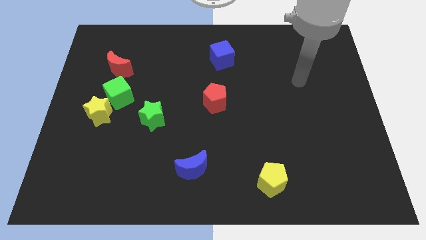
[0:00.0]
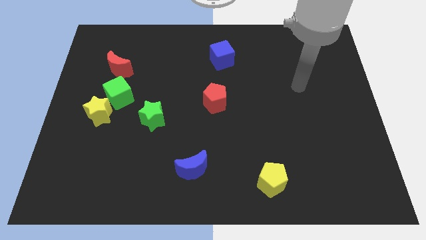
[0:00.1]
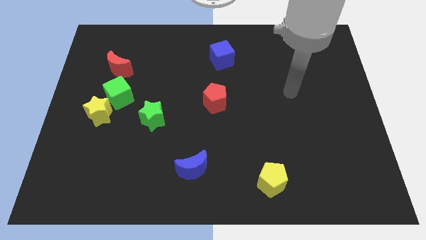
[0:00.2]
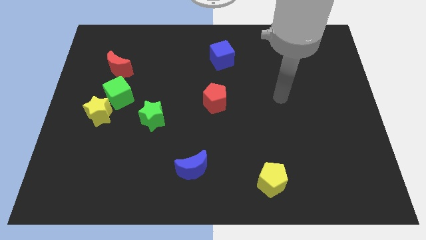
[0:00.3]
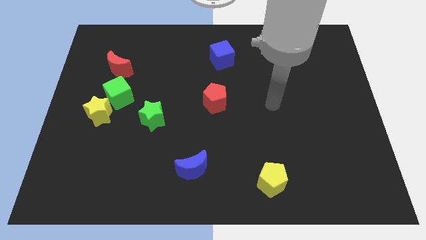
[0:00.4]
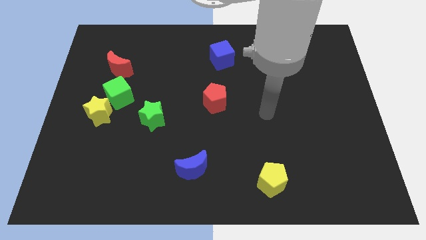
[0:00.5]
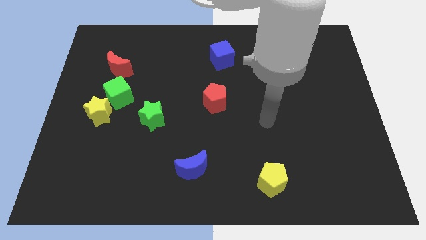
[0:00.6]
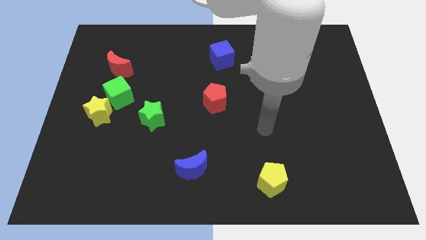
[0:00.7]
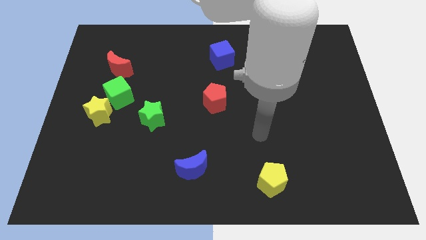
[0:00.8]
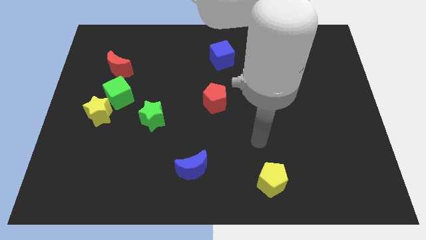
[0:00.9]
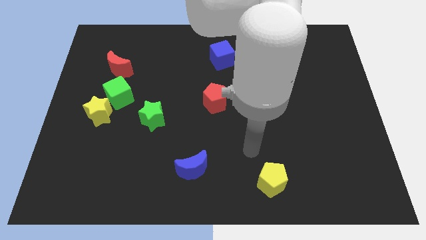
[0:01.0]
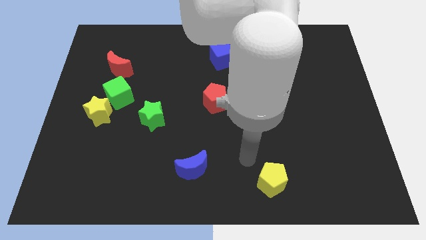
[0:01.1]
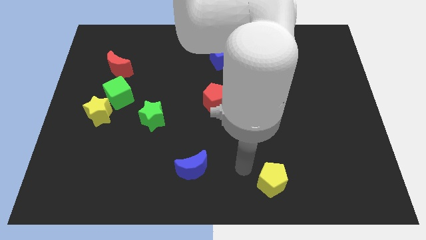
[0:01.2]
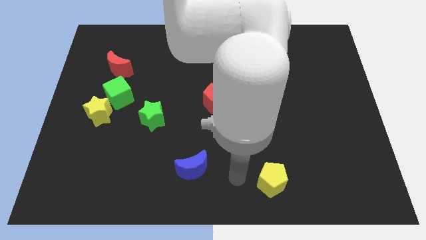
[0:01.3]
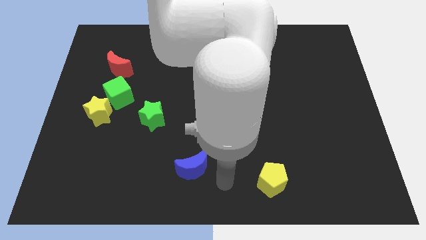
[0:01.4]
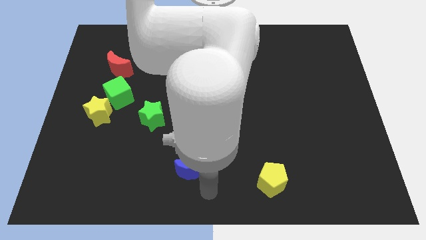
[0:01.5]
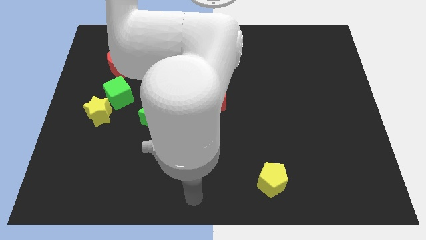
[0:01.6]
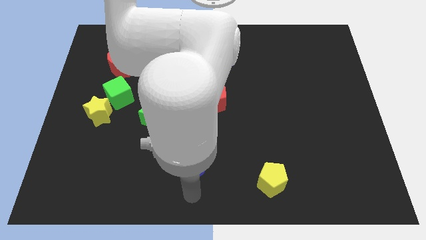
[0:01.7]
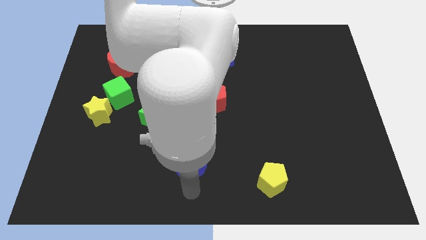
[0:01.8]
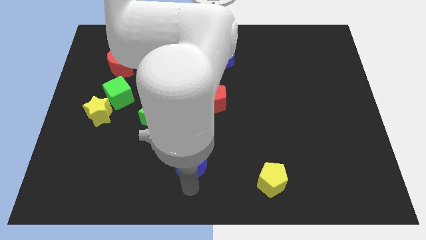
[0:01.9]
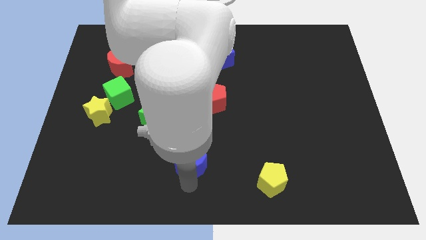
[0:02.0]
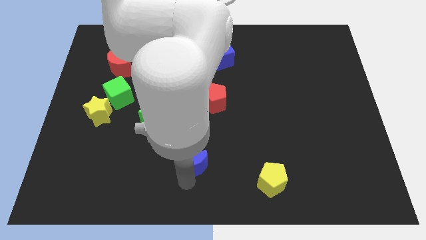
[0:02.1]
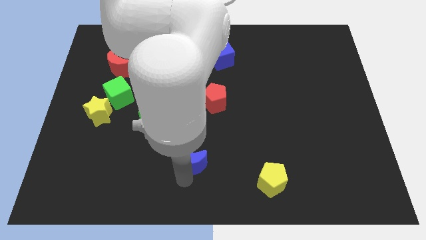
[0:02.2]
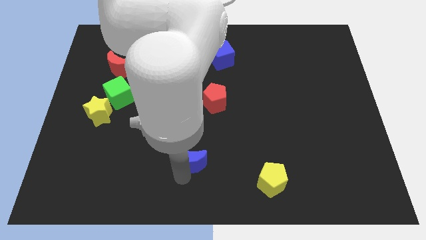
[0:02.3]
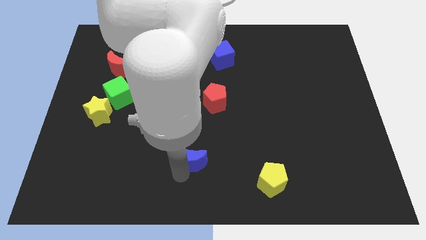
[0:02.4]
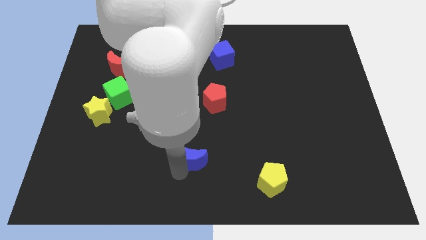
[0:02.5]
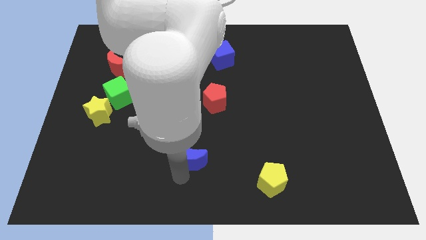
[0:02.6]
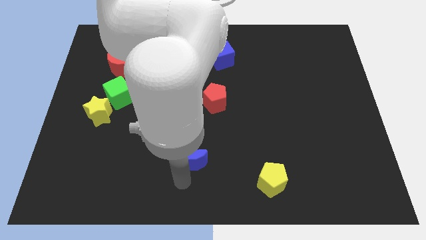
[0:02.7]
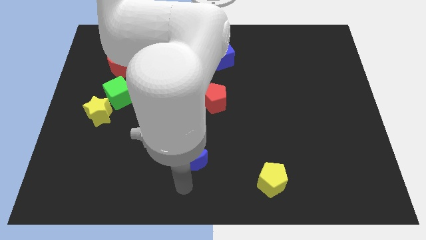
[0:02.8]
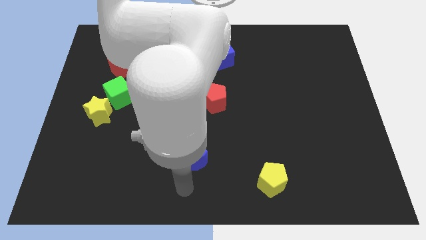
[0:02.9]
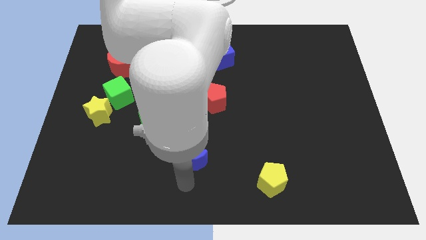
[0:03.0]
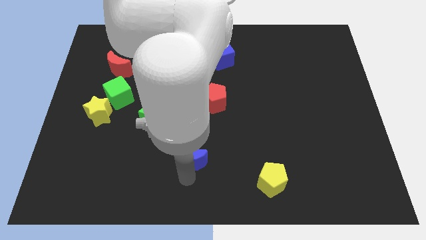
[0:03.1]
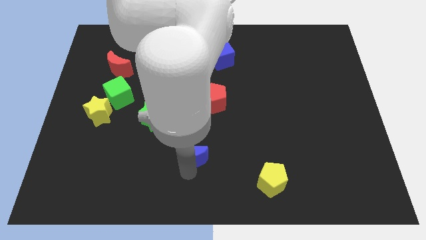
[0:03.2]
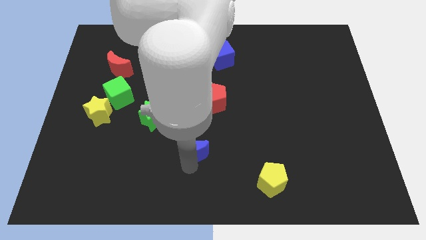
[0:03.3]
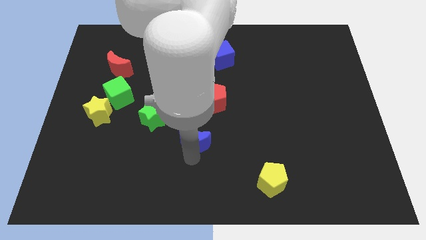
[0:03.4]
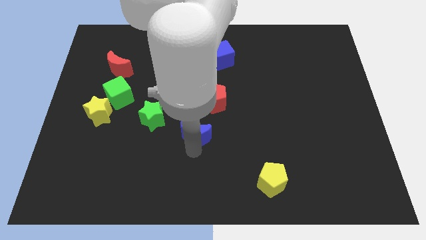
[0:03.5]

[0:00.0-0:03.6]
slightly push the blue moon up

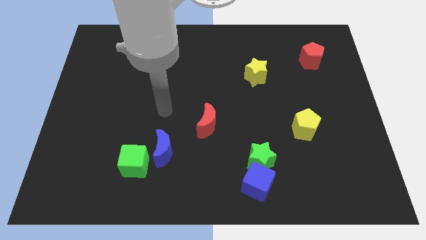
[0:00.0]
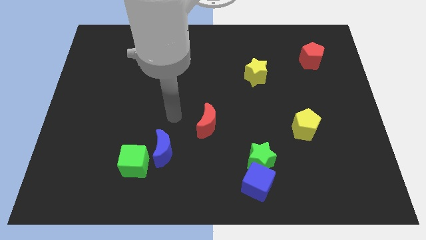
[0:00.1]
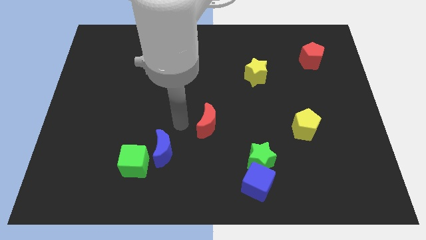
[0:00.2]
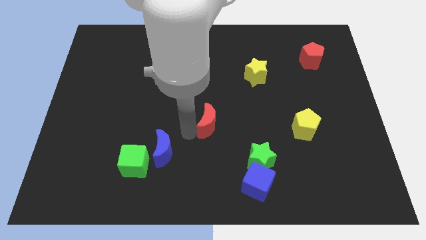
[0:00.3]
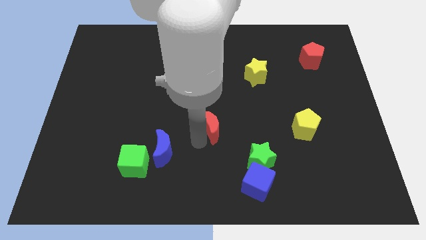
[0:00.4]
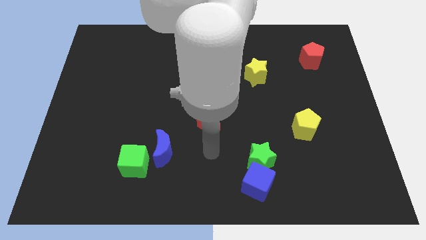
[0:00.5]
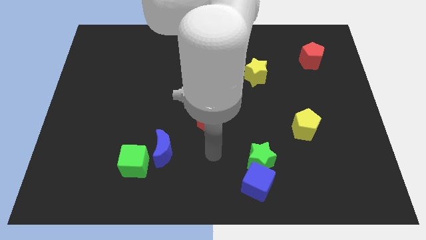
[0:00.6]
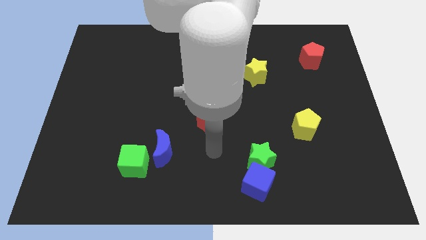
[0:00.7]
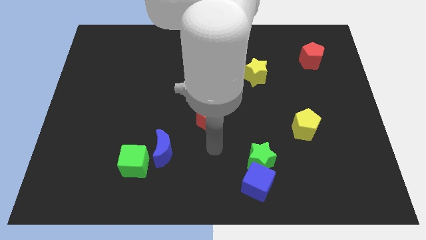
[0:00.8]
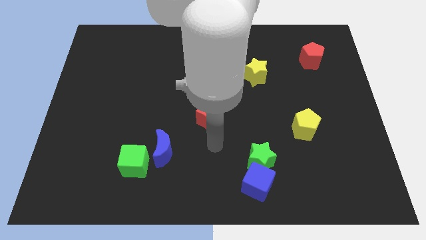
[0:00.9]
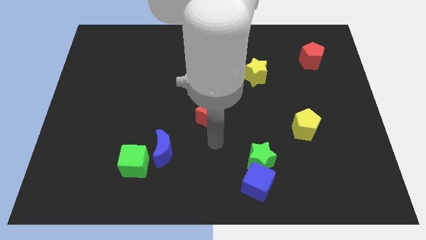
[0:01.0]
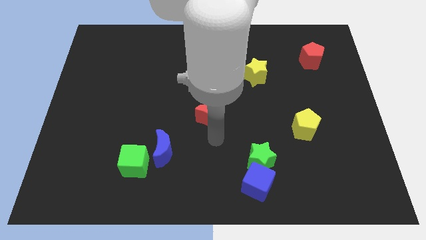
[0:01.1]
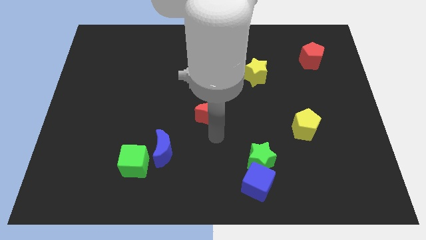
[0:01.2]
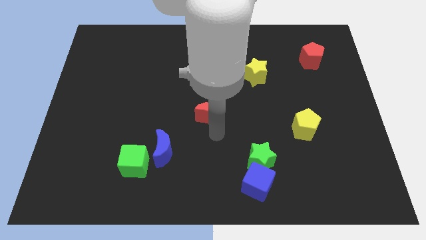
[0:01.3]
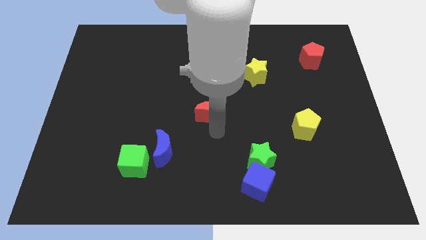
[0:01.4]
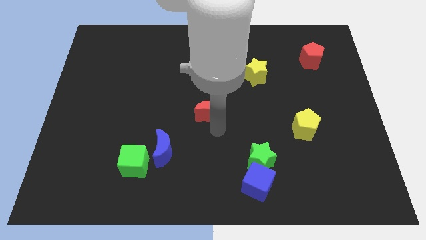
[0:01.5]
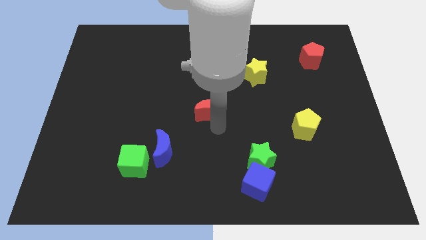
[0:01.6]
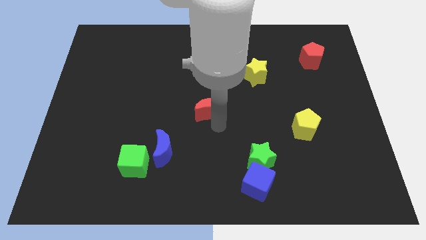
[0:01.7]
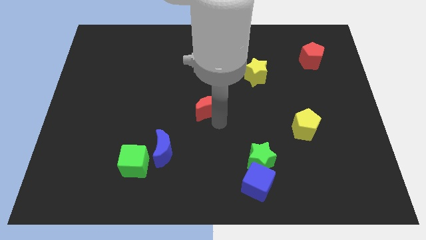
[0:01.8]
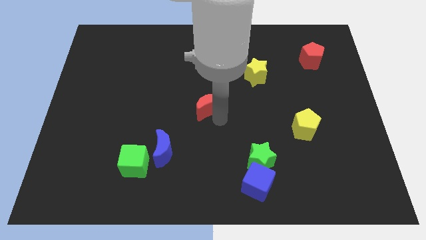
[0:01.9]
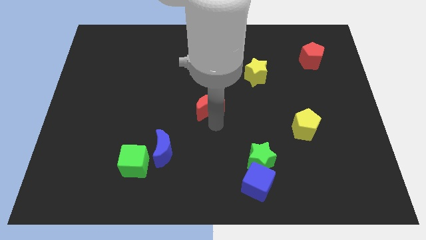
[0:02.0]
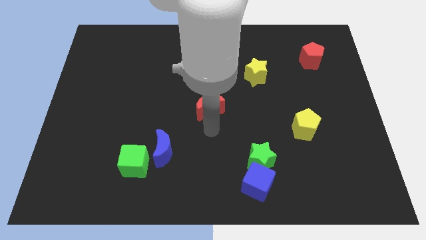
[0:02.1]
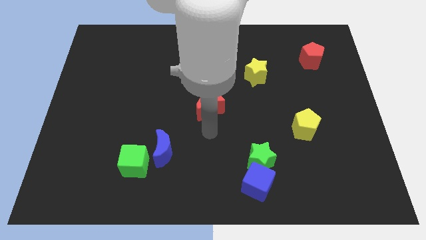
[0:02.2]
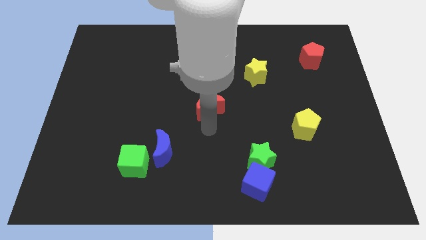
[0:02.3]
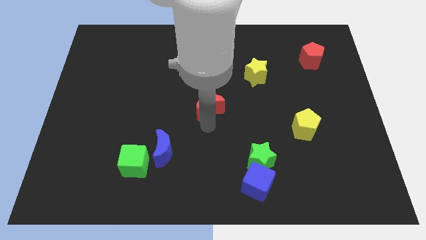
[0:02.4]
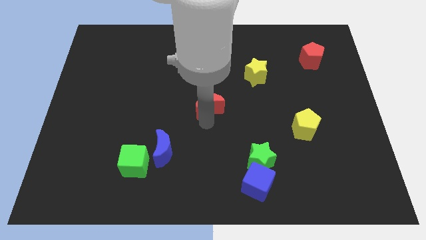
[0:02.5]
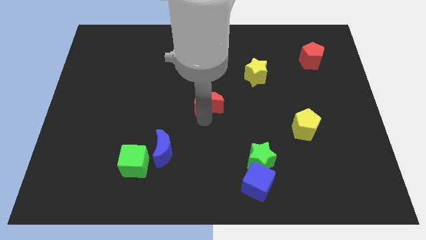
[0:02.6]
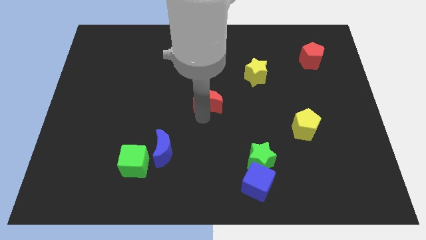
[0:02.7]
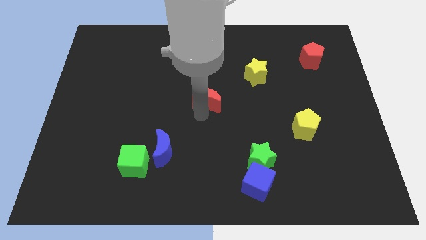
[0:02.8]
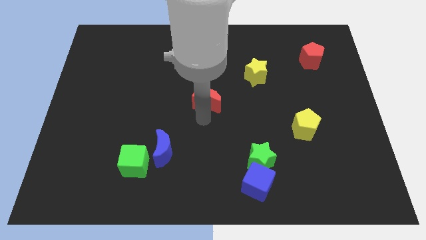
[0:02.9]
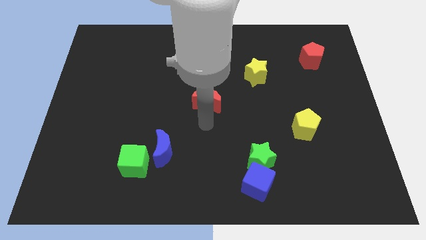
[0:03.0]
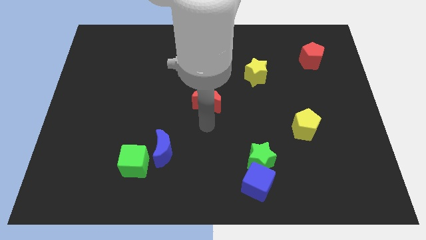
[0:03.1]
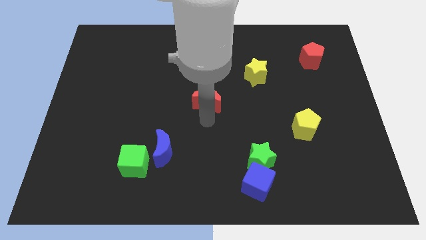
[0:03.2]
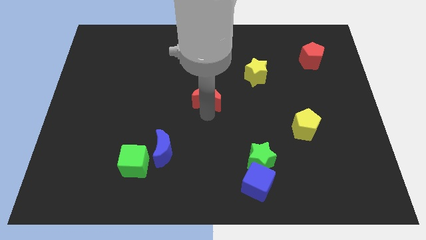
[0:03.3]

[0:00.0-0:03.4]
slightly move the red moon upwards

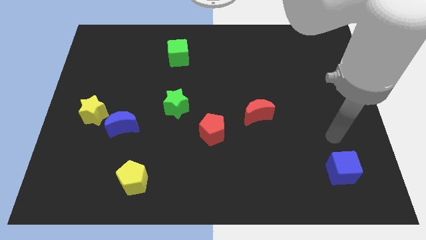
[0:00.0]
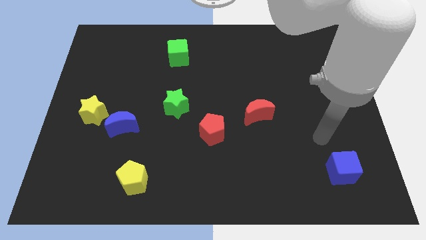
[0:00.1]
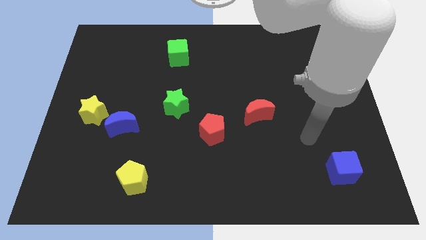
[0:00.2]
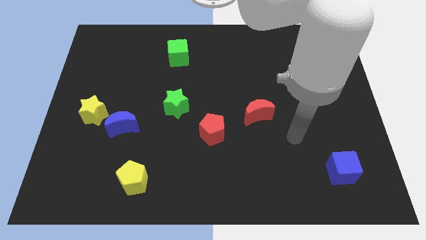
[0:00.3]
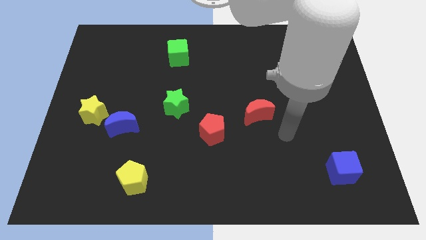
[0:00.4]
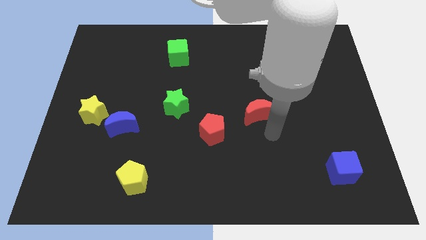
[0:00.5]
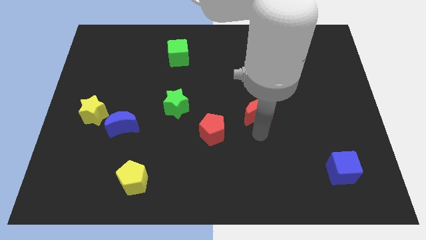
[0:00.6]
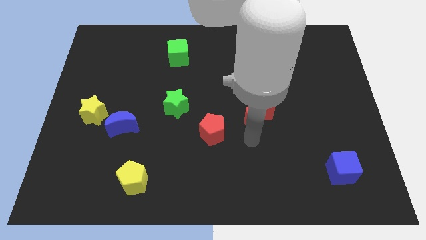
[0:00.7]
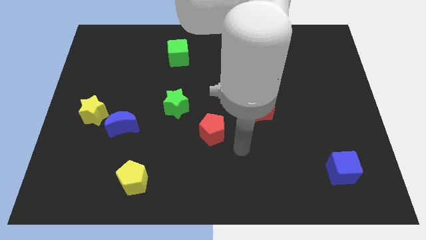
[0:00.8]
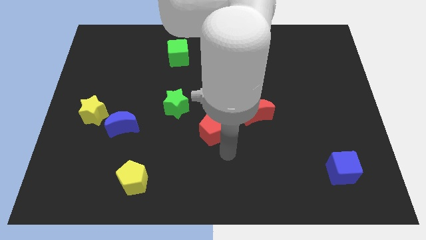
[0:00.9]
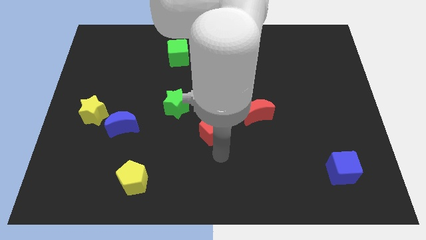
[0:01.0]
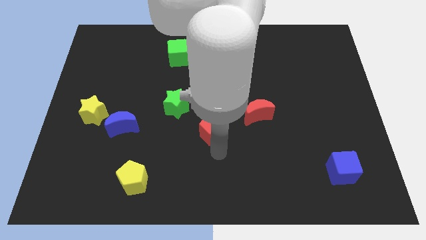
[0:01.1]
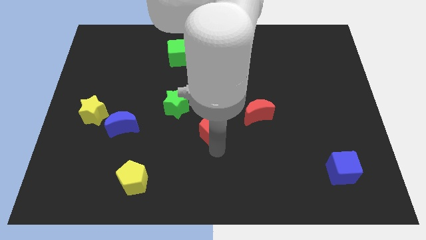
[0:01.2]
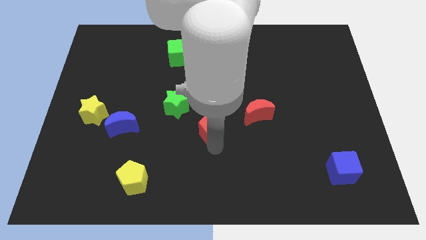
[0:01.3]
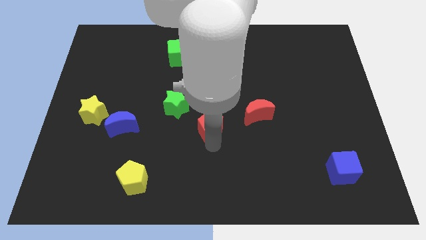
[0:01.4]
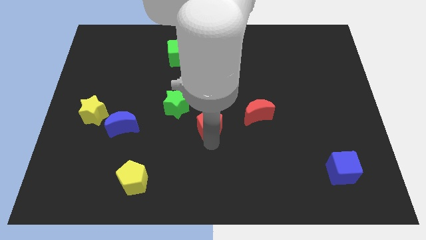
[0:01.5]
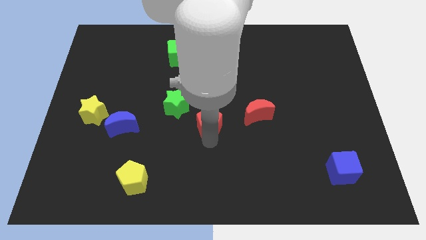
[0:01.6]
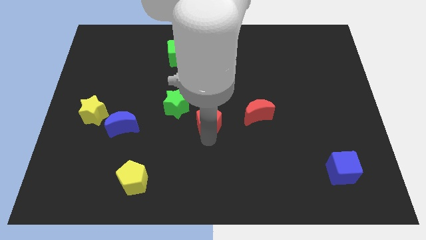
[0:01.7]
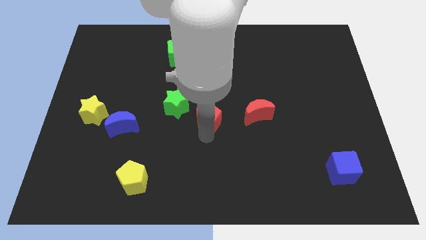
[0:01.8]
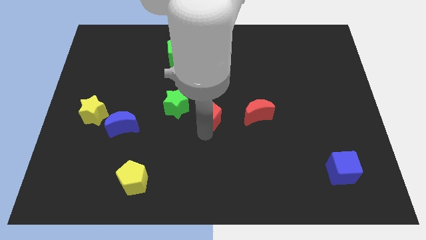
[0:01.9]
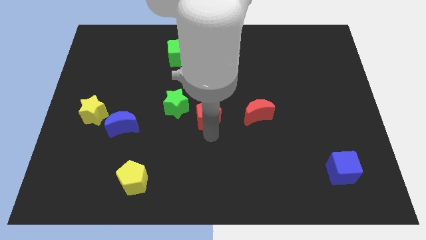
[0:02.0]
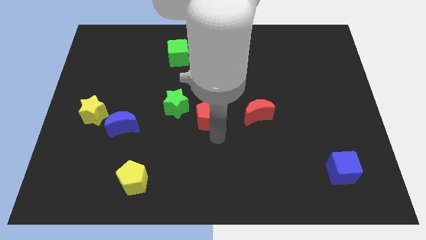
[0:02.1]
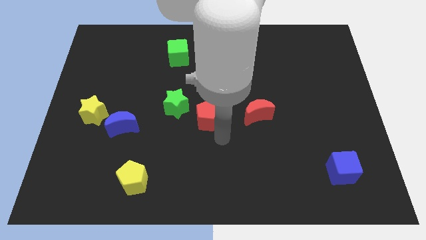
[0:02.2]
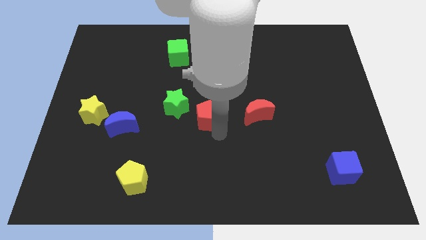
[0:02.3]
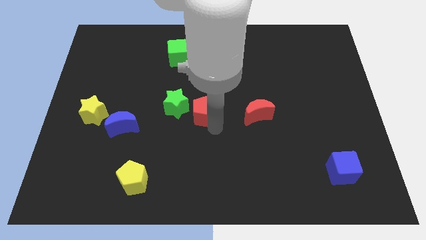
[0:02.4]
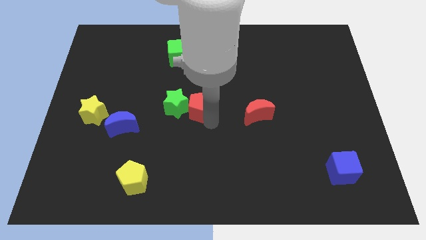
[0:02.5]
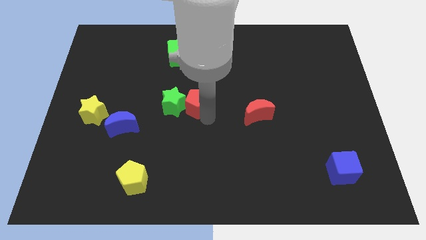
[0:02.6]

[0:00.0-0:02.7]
slightly move the red pentagon upwards and then to the left
